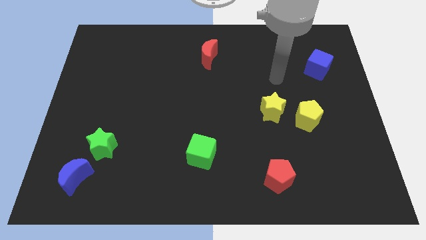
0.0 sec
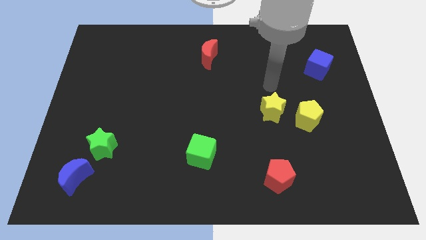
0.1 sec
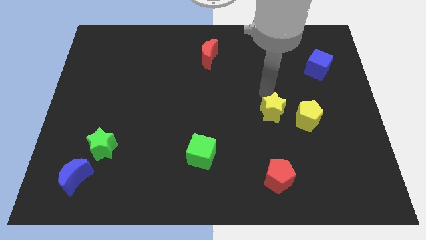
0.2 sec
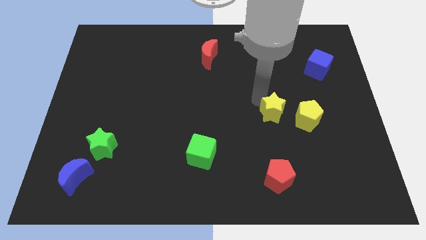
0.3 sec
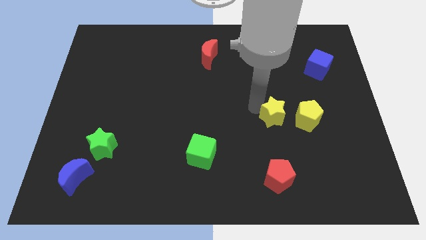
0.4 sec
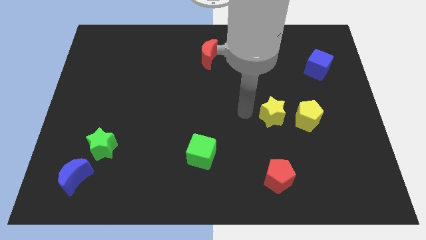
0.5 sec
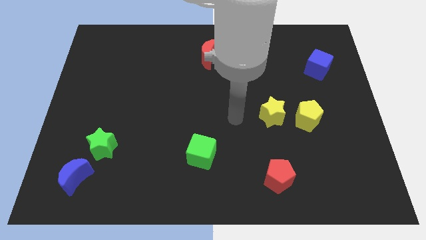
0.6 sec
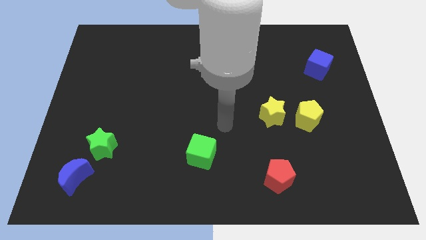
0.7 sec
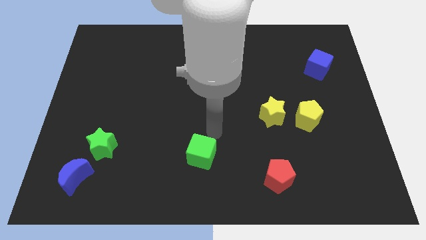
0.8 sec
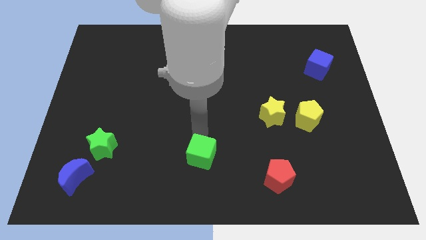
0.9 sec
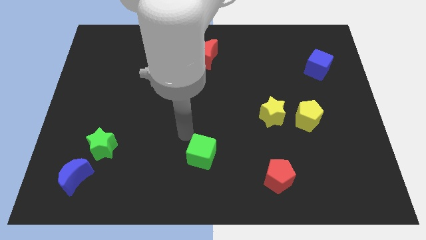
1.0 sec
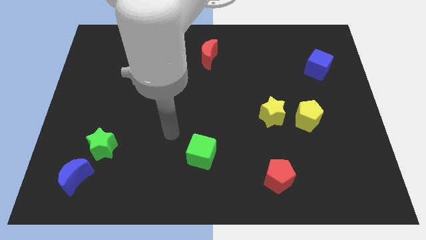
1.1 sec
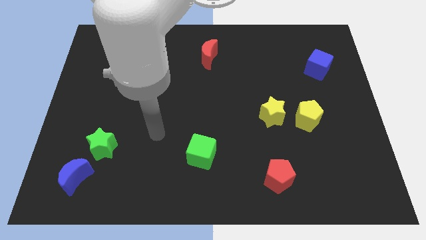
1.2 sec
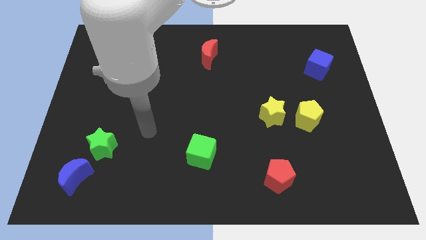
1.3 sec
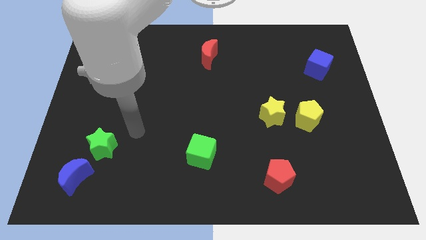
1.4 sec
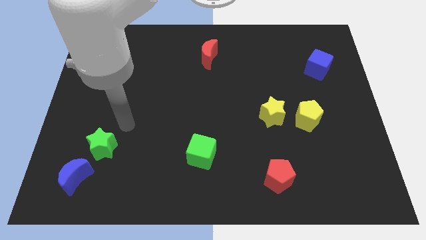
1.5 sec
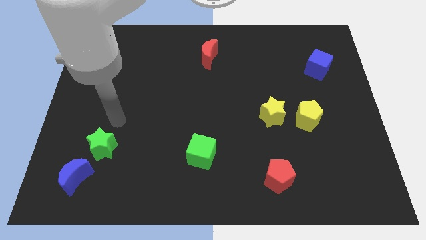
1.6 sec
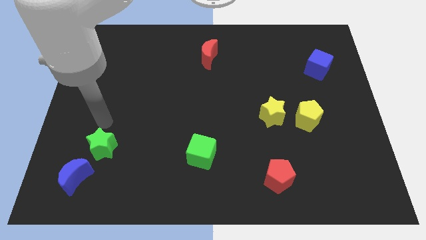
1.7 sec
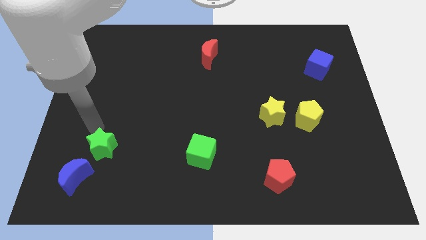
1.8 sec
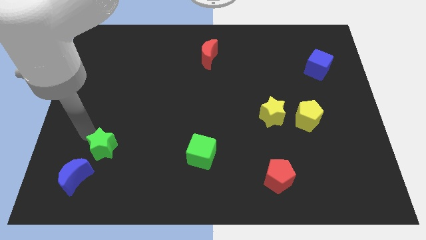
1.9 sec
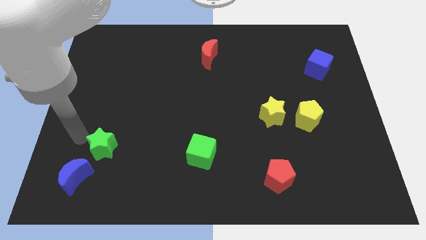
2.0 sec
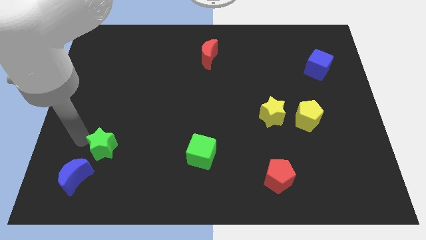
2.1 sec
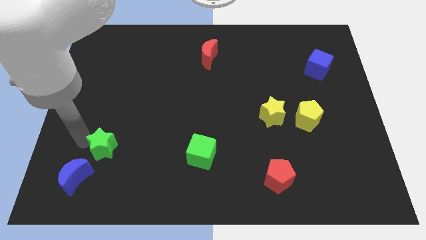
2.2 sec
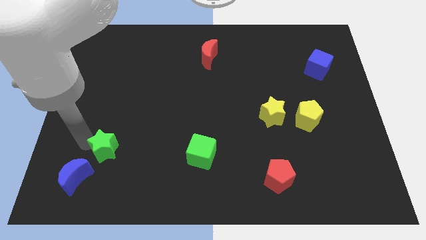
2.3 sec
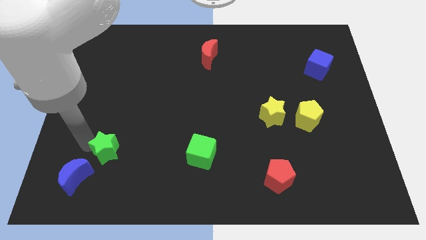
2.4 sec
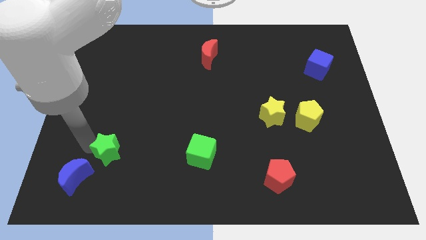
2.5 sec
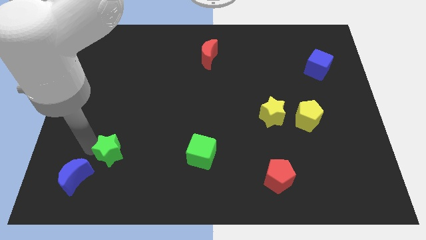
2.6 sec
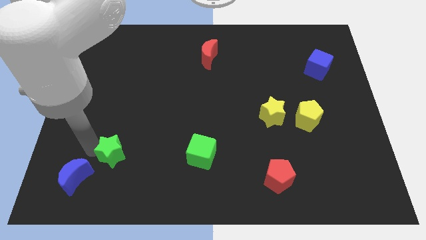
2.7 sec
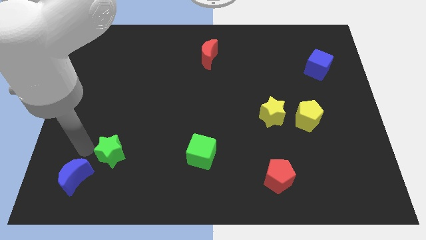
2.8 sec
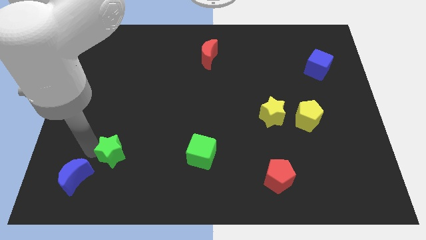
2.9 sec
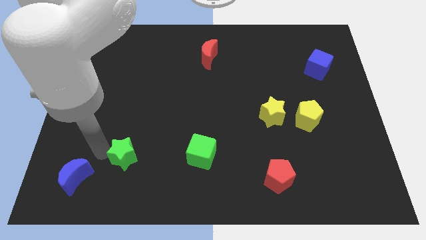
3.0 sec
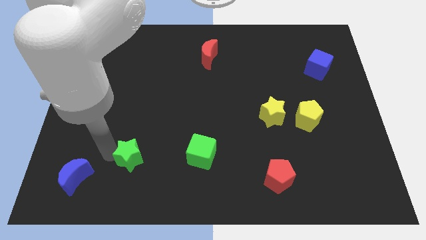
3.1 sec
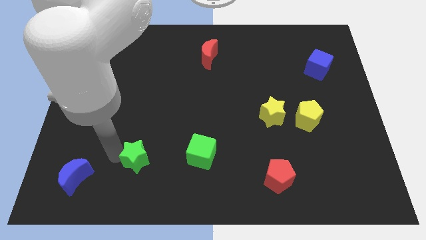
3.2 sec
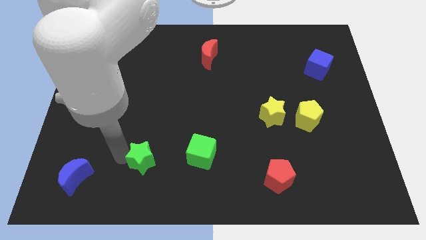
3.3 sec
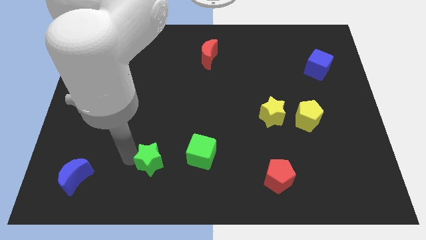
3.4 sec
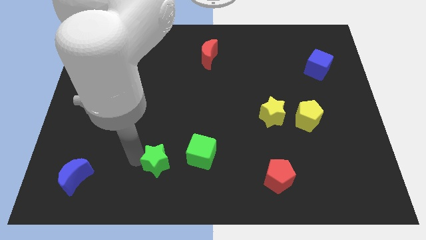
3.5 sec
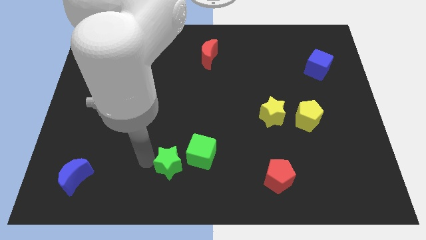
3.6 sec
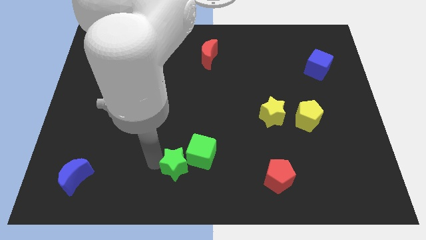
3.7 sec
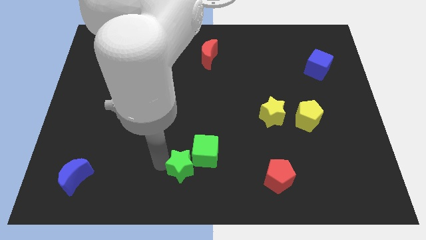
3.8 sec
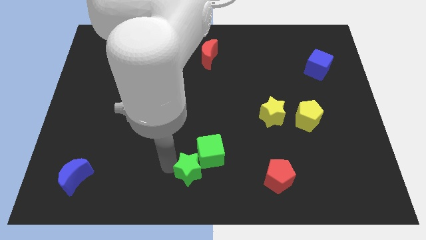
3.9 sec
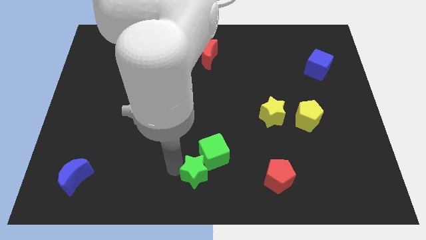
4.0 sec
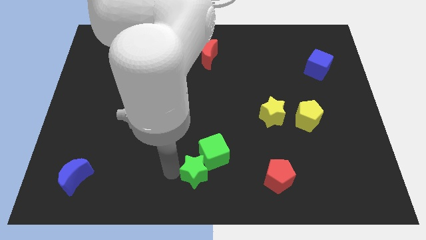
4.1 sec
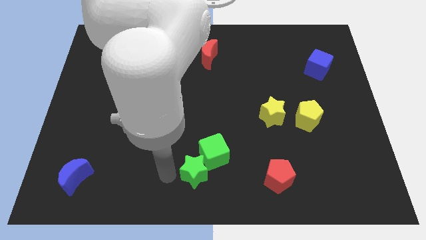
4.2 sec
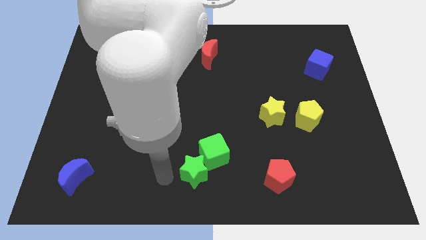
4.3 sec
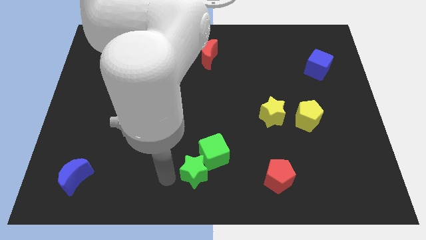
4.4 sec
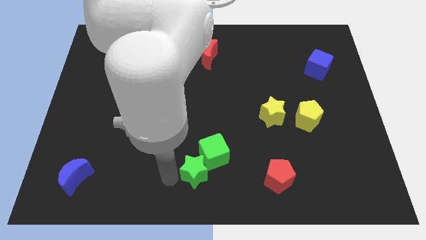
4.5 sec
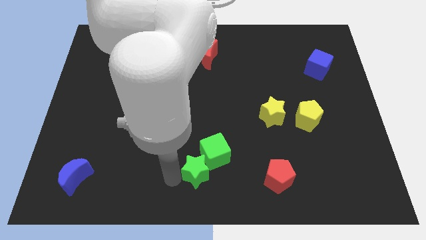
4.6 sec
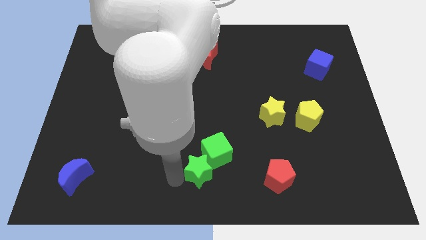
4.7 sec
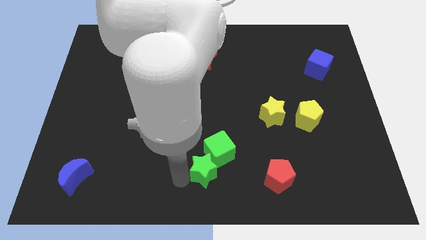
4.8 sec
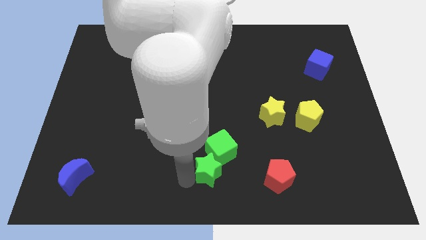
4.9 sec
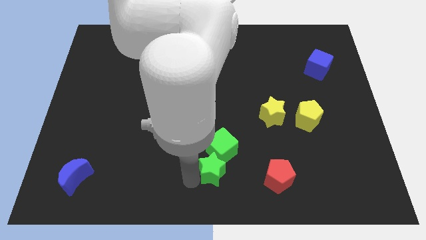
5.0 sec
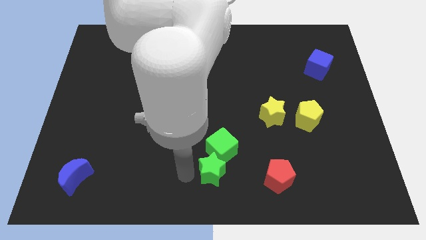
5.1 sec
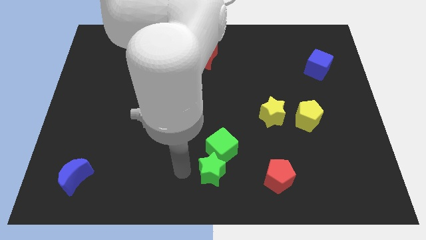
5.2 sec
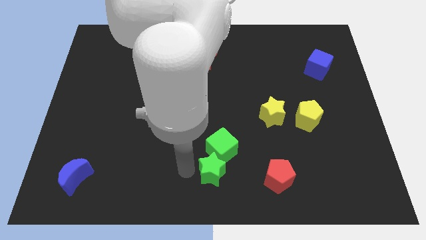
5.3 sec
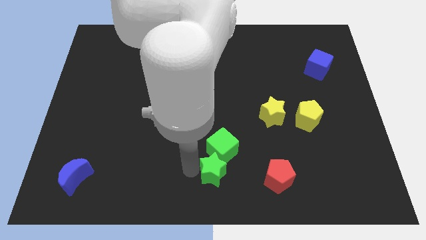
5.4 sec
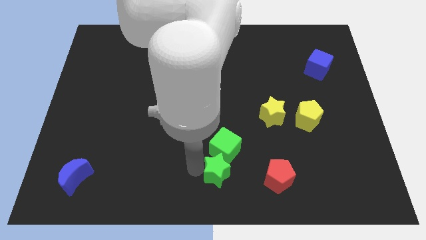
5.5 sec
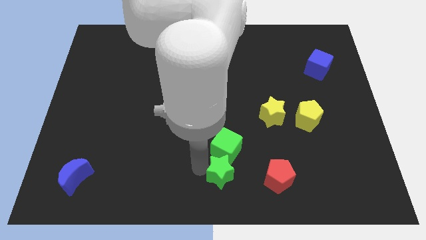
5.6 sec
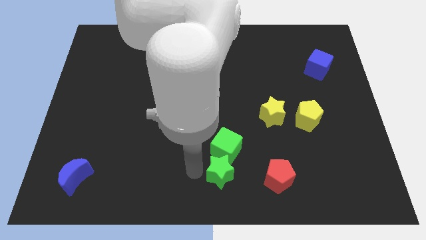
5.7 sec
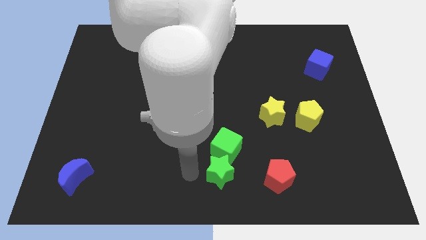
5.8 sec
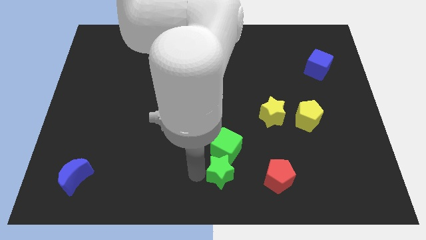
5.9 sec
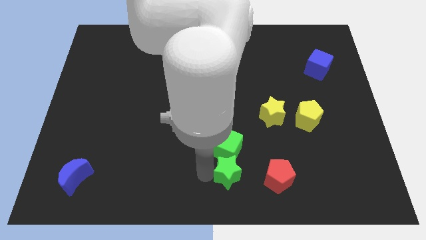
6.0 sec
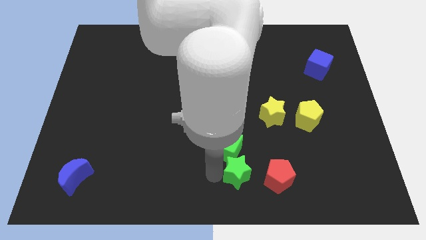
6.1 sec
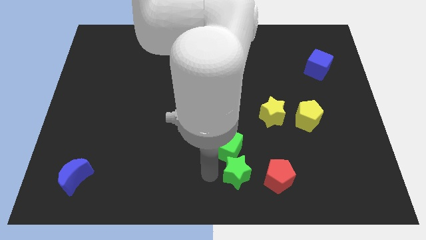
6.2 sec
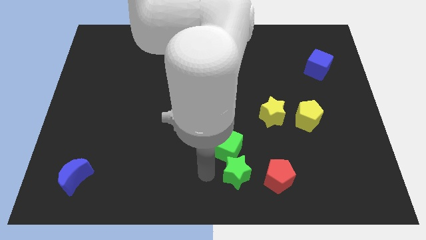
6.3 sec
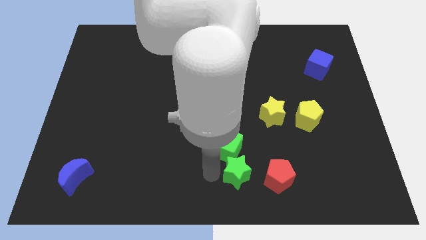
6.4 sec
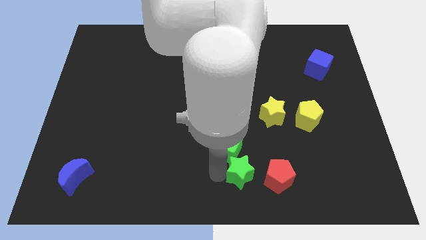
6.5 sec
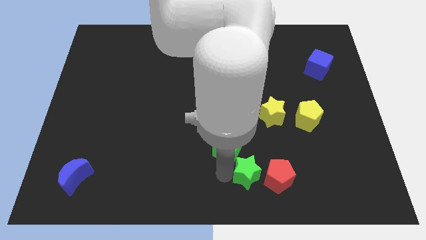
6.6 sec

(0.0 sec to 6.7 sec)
put the green star towards the red pentagon

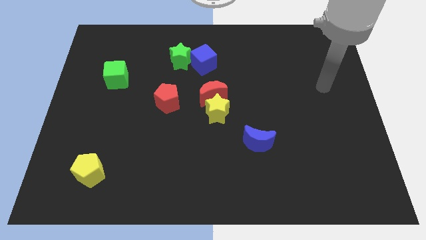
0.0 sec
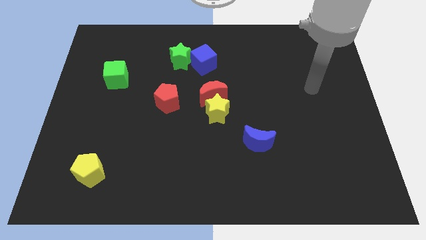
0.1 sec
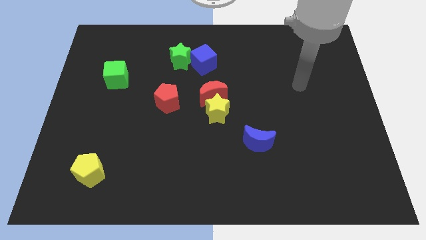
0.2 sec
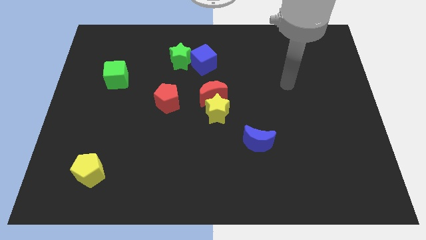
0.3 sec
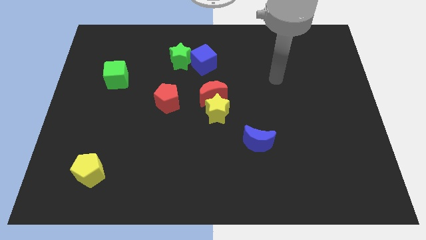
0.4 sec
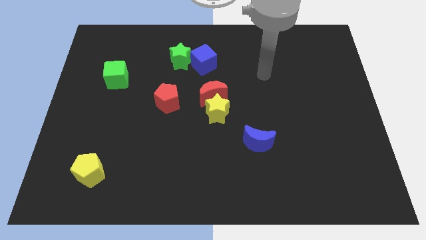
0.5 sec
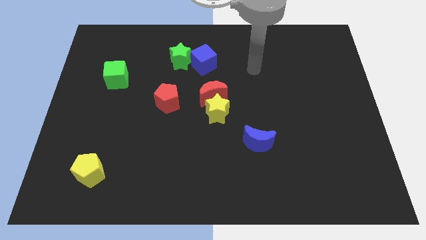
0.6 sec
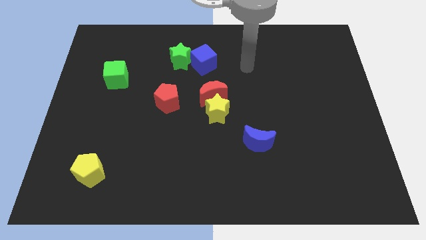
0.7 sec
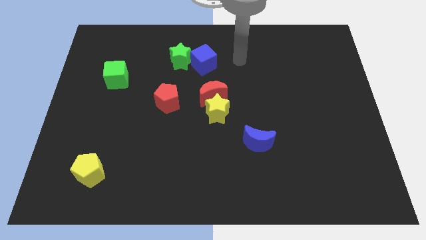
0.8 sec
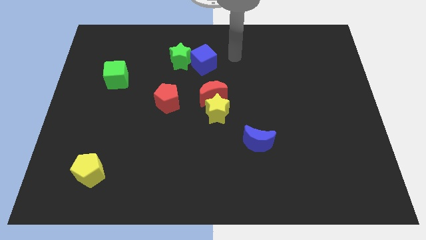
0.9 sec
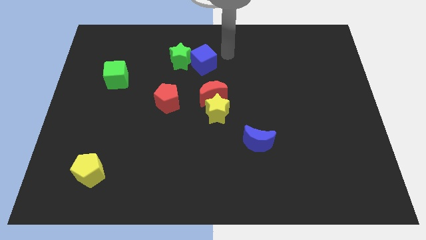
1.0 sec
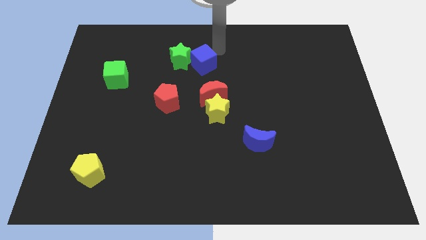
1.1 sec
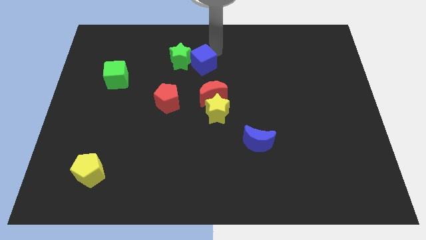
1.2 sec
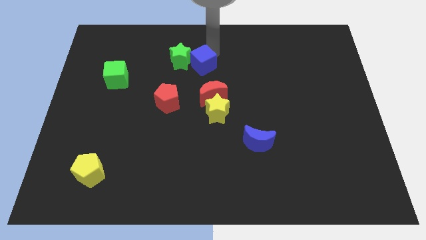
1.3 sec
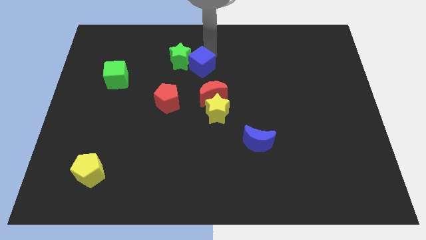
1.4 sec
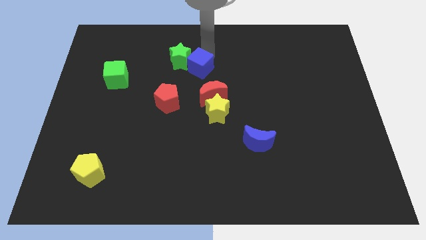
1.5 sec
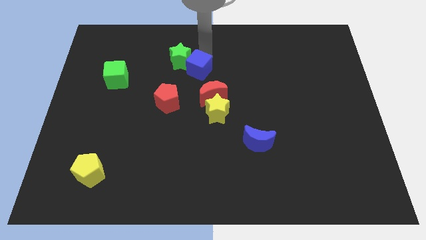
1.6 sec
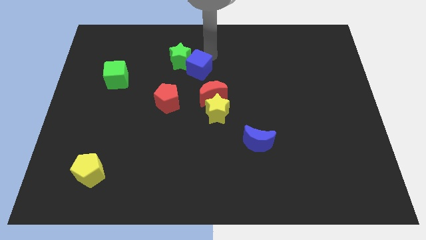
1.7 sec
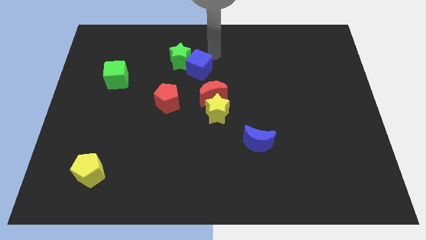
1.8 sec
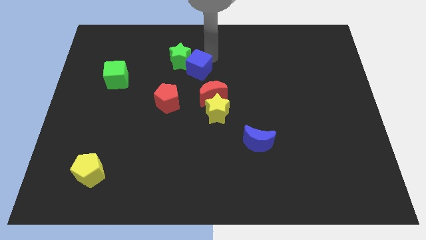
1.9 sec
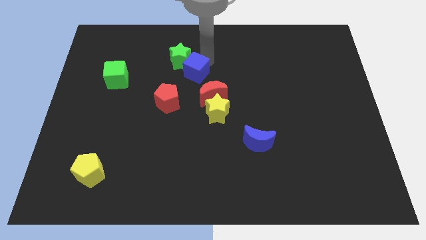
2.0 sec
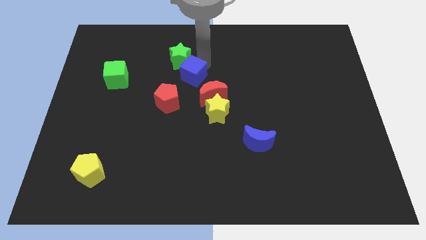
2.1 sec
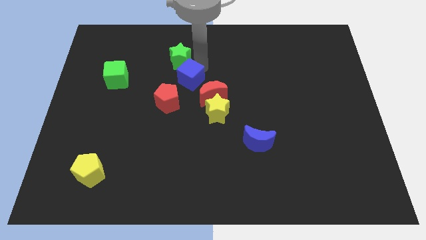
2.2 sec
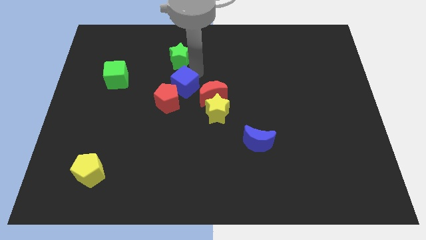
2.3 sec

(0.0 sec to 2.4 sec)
move the blue cube towards the red pentagon
